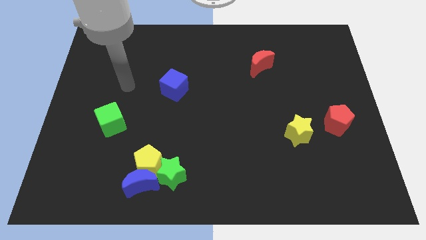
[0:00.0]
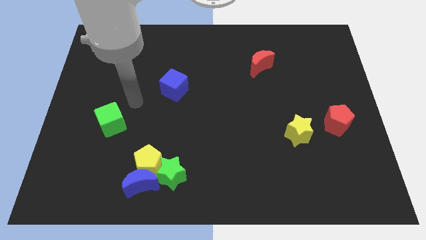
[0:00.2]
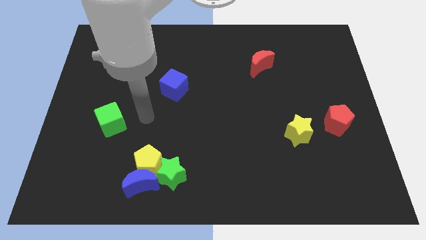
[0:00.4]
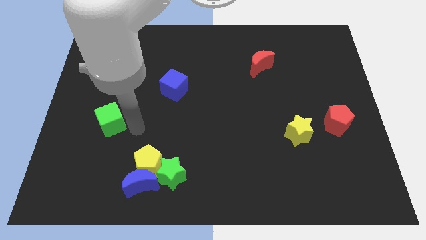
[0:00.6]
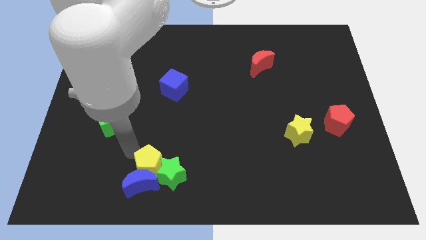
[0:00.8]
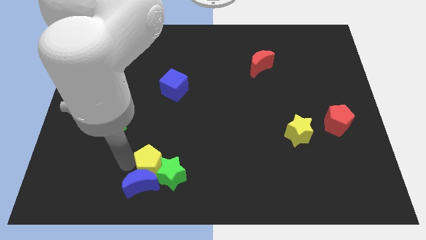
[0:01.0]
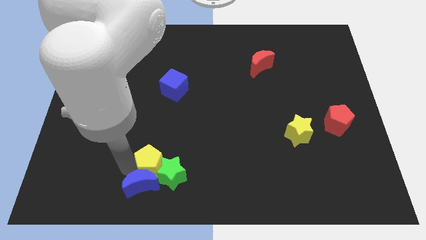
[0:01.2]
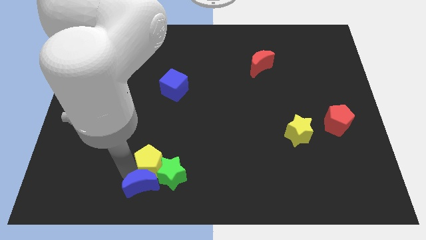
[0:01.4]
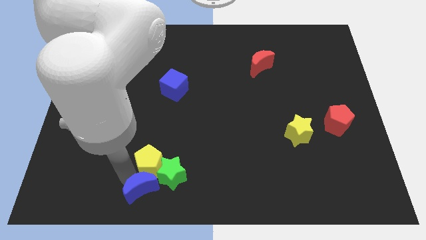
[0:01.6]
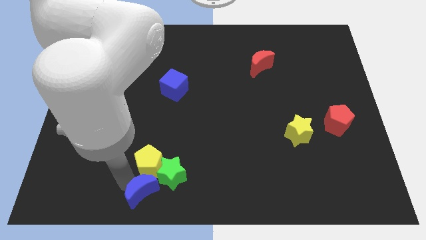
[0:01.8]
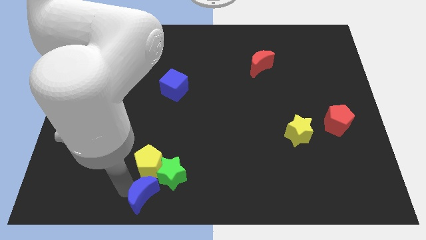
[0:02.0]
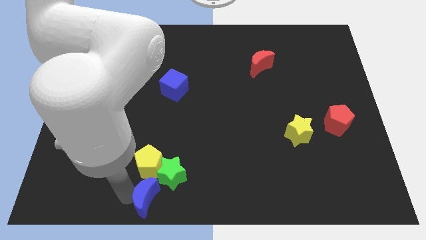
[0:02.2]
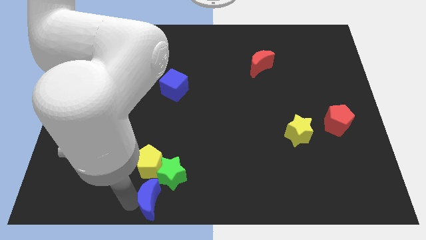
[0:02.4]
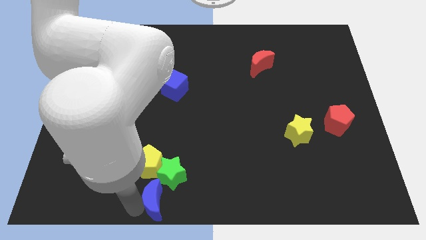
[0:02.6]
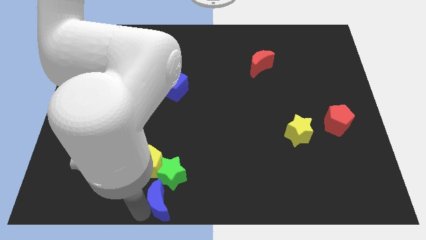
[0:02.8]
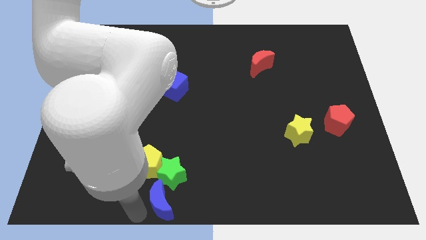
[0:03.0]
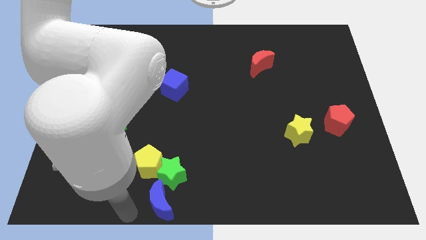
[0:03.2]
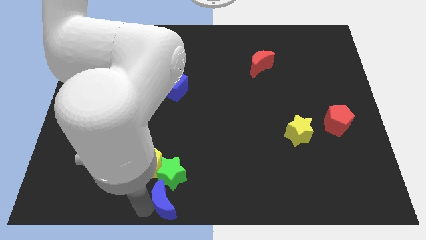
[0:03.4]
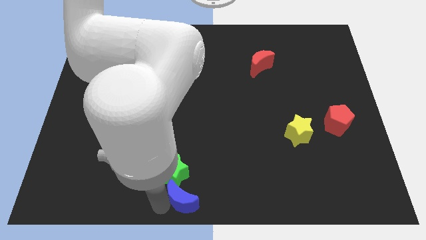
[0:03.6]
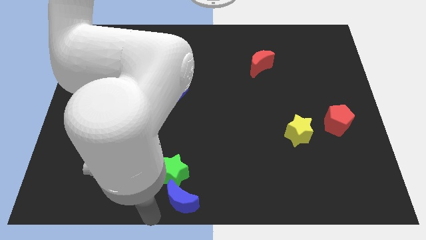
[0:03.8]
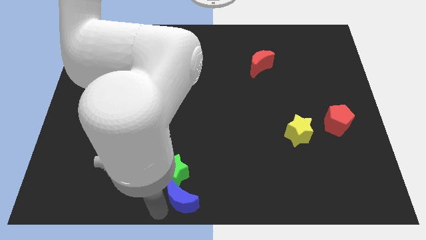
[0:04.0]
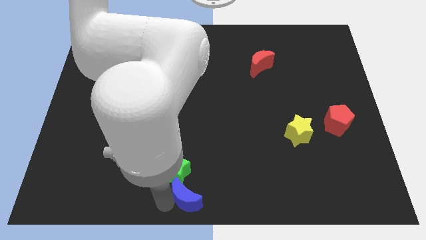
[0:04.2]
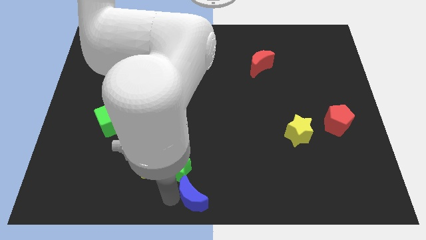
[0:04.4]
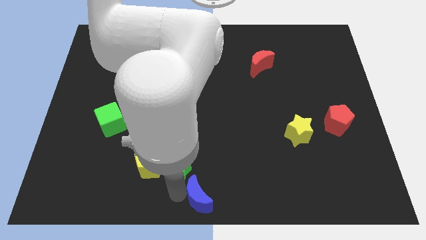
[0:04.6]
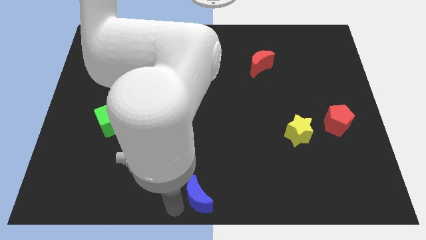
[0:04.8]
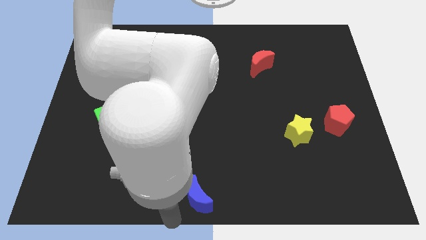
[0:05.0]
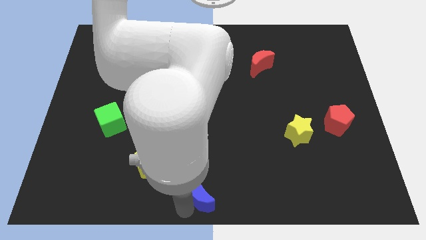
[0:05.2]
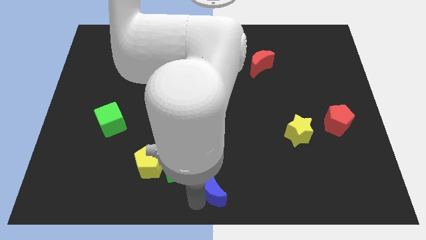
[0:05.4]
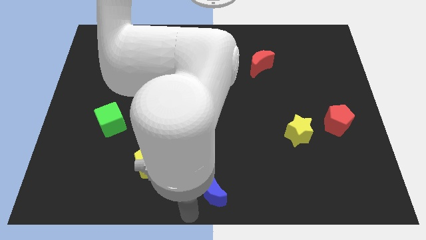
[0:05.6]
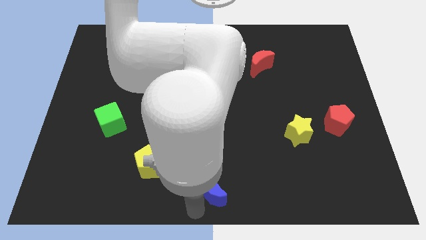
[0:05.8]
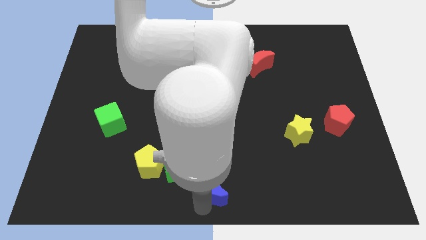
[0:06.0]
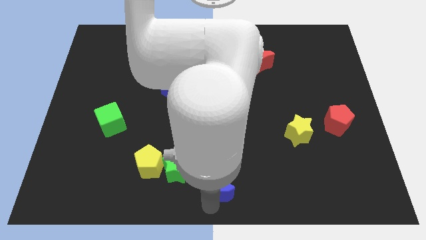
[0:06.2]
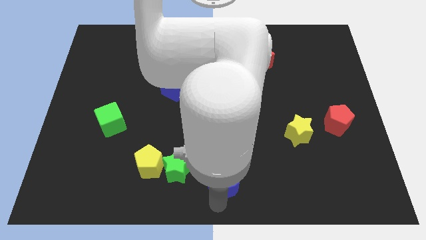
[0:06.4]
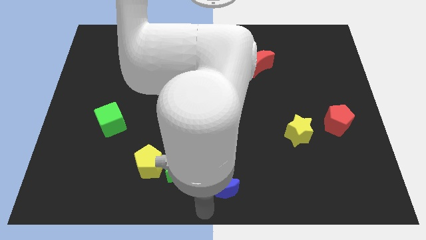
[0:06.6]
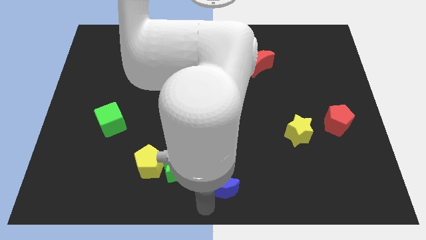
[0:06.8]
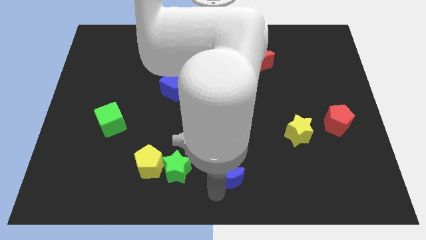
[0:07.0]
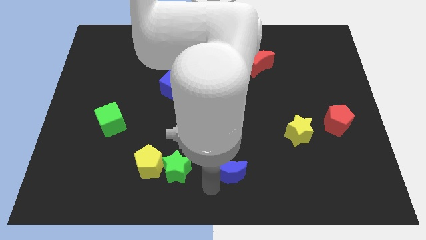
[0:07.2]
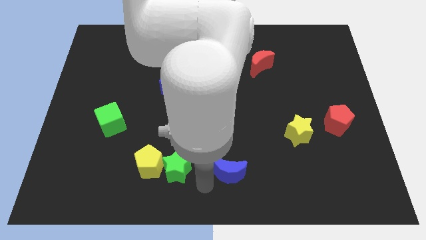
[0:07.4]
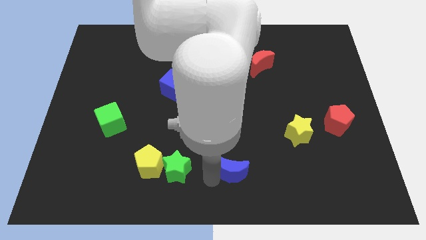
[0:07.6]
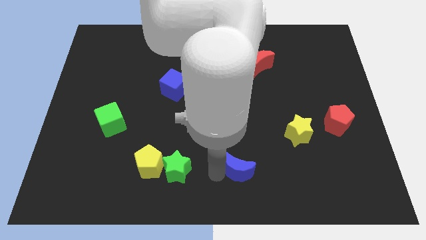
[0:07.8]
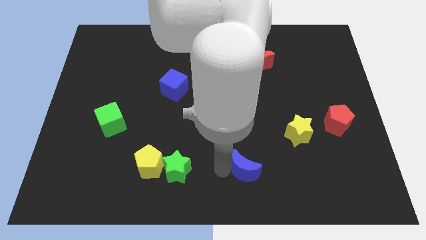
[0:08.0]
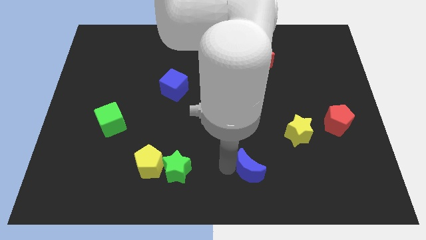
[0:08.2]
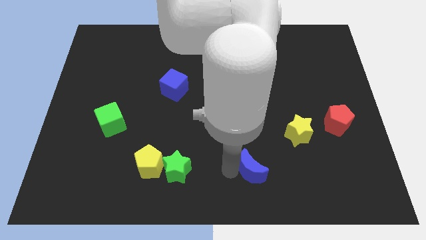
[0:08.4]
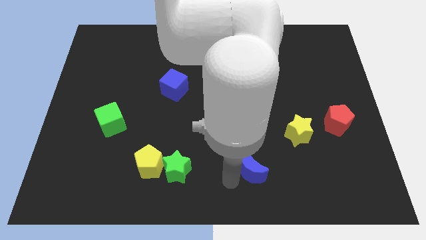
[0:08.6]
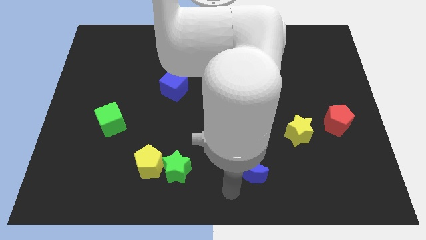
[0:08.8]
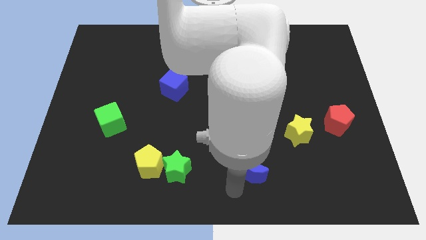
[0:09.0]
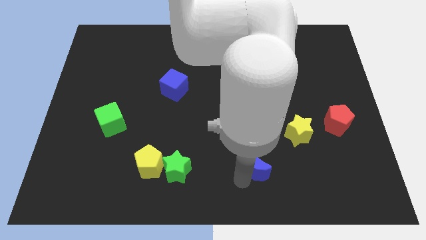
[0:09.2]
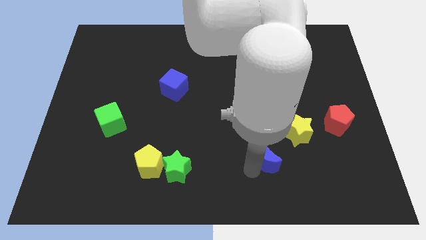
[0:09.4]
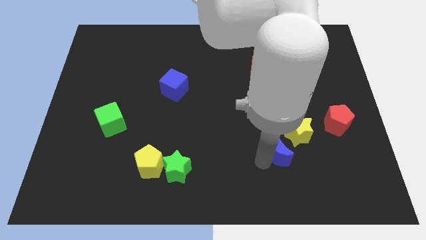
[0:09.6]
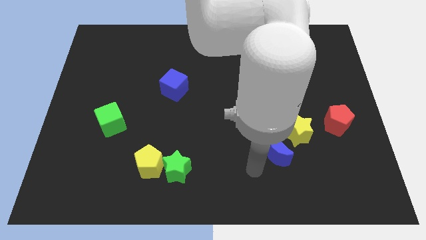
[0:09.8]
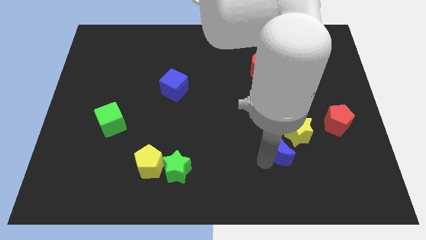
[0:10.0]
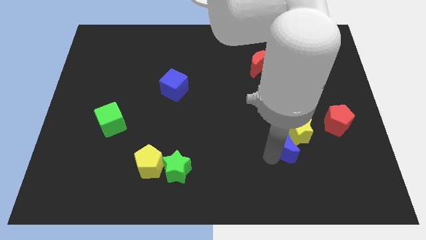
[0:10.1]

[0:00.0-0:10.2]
move the blue moon close to the yellow star

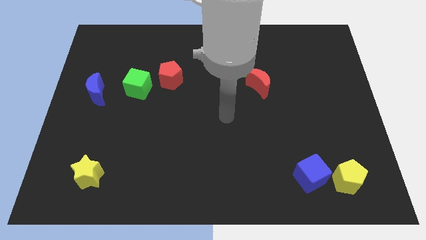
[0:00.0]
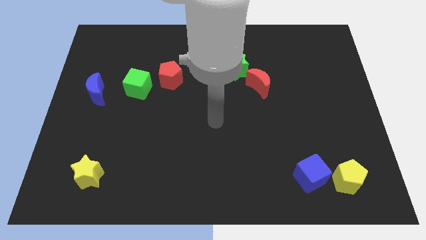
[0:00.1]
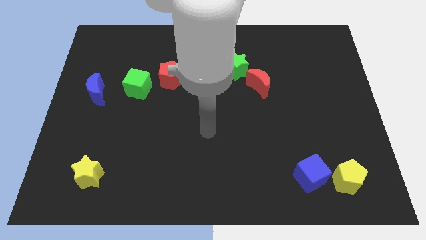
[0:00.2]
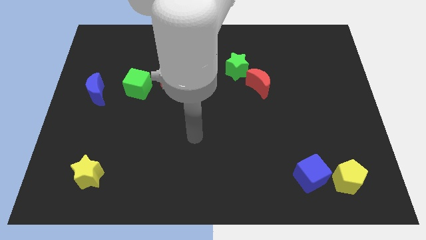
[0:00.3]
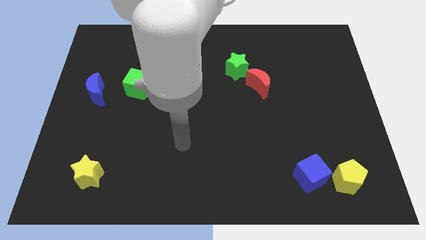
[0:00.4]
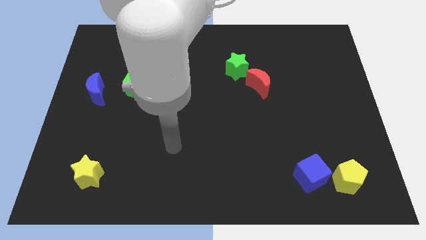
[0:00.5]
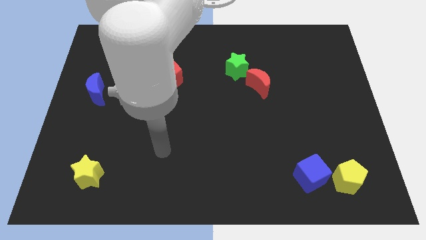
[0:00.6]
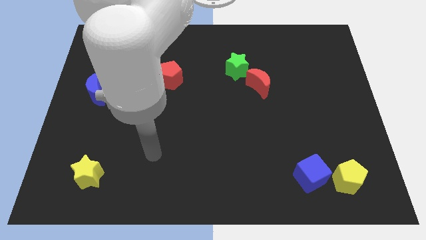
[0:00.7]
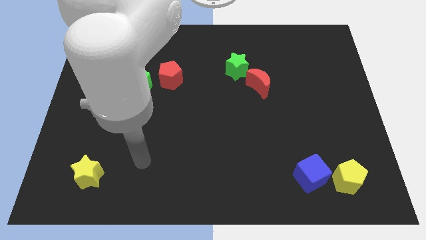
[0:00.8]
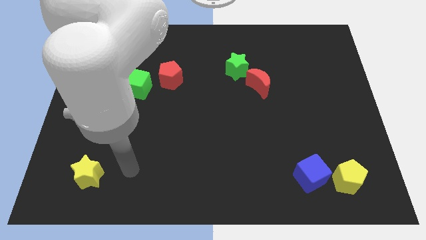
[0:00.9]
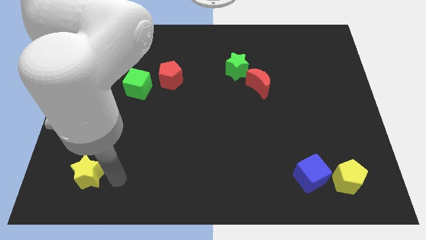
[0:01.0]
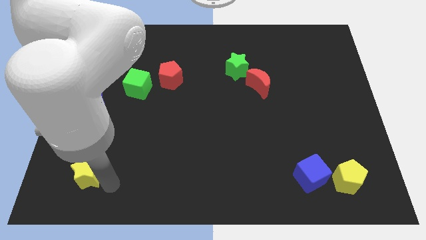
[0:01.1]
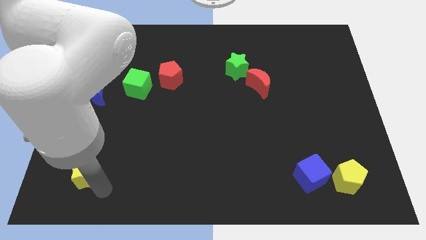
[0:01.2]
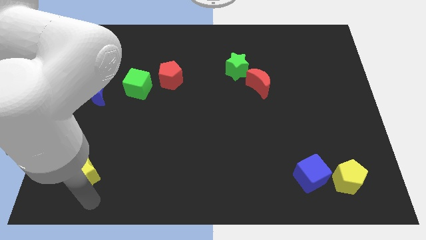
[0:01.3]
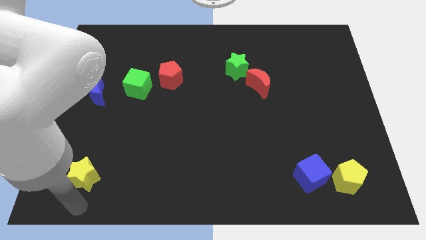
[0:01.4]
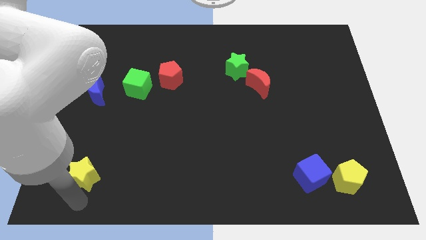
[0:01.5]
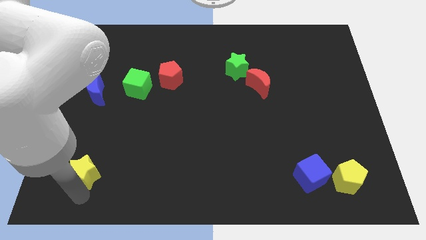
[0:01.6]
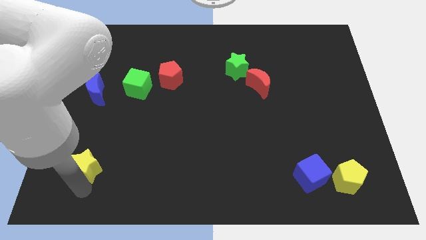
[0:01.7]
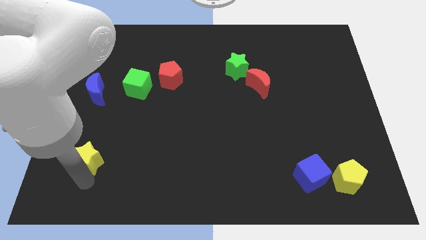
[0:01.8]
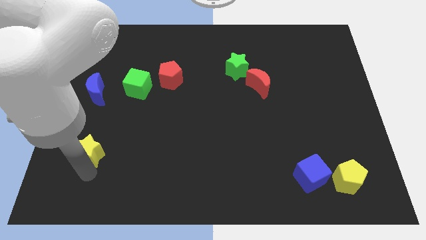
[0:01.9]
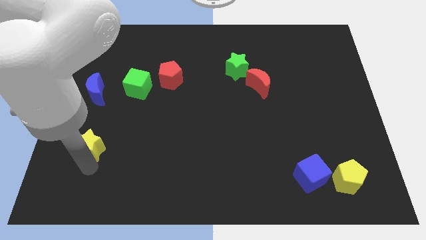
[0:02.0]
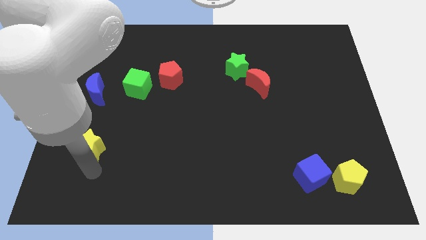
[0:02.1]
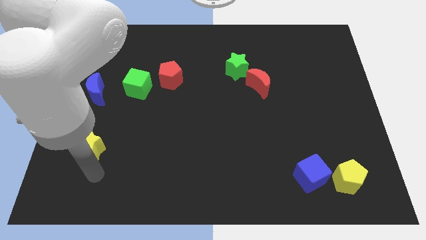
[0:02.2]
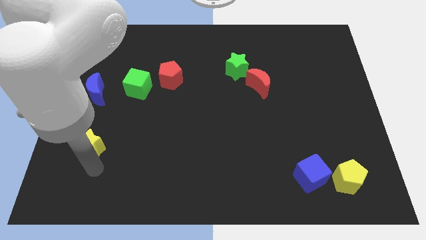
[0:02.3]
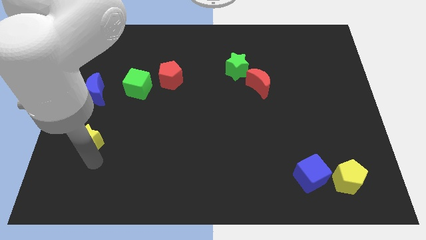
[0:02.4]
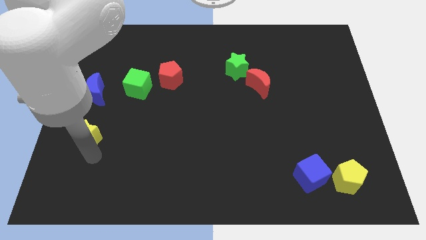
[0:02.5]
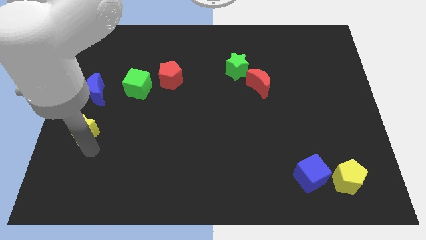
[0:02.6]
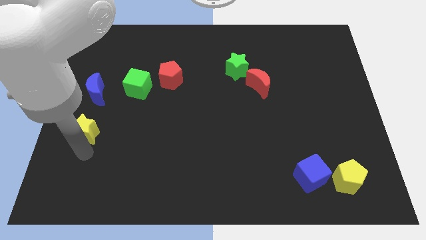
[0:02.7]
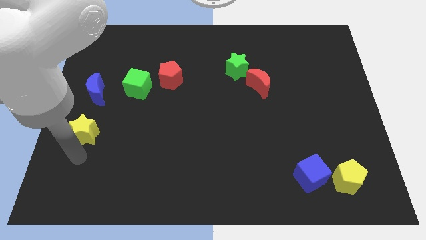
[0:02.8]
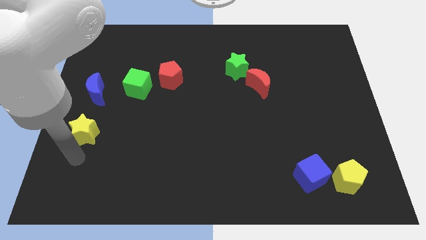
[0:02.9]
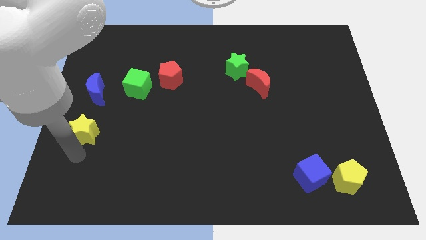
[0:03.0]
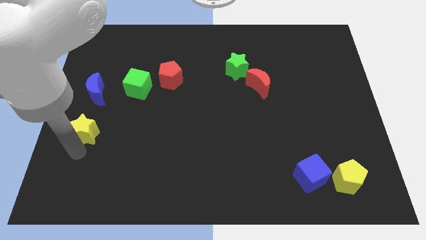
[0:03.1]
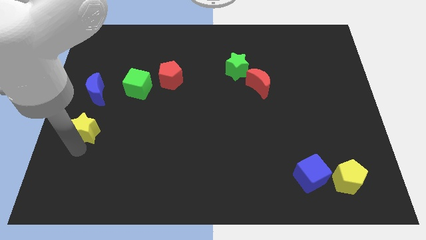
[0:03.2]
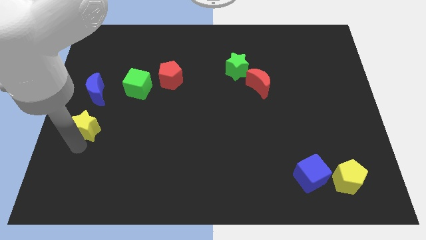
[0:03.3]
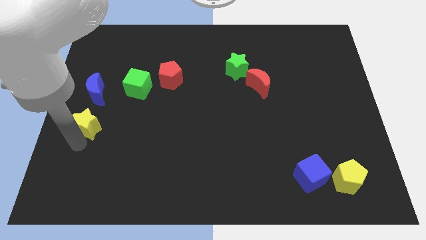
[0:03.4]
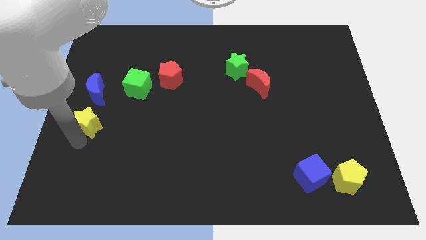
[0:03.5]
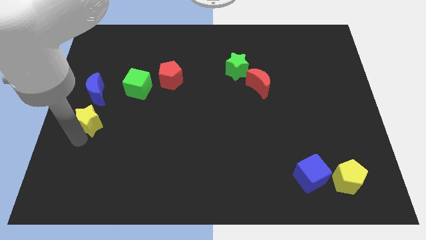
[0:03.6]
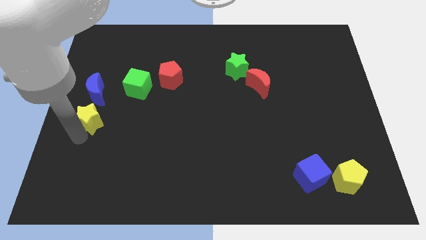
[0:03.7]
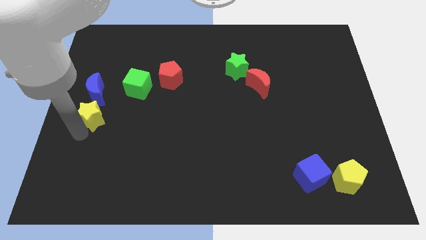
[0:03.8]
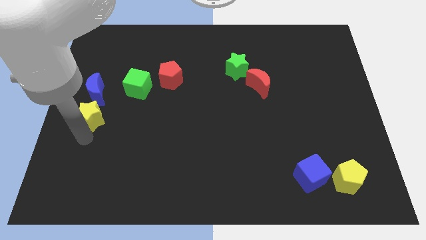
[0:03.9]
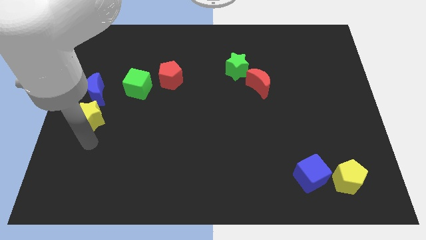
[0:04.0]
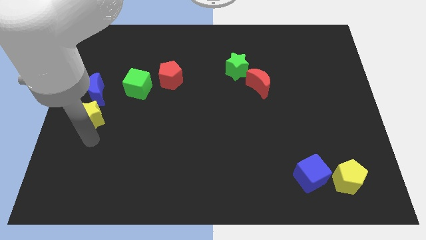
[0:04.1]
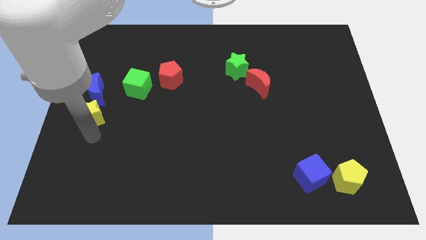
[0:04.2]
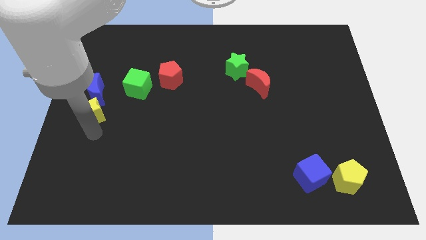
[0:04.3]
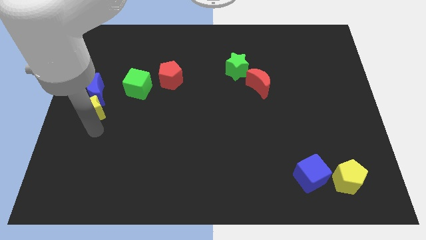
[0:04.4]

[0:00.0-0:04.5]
put the yellow star close to the blue moon
